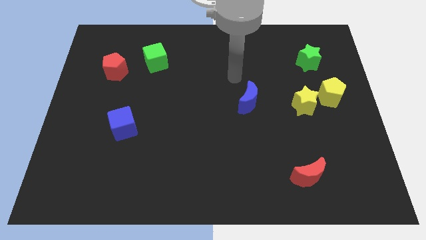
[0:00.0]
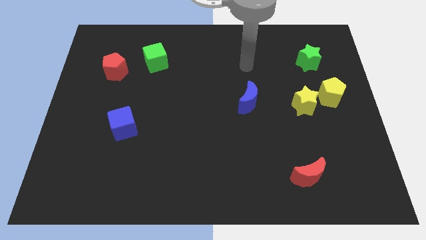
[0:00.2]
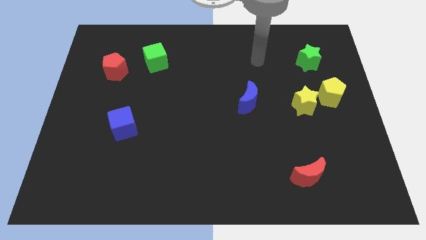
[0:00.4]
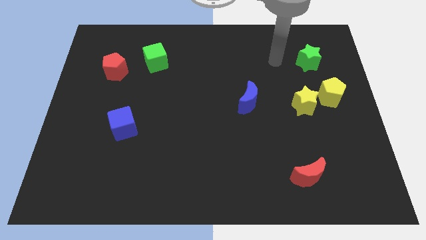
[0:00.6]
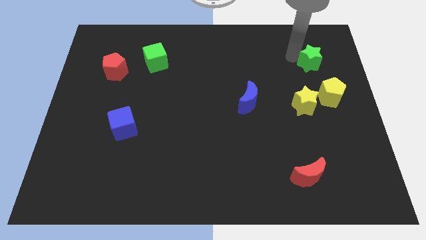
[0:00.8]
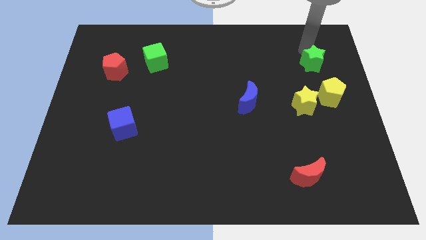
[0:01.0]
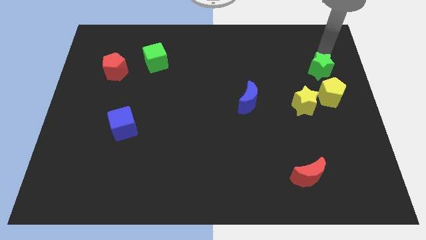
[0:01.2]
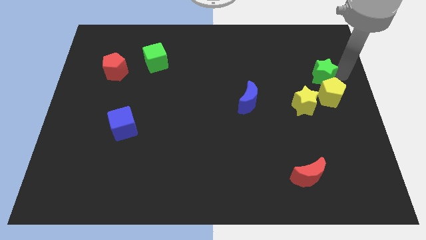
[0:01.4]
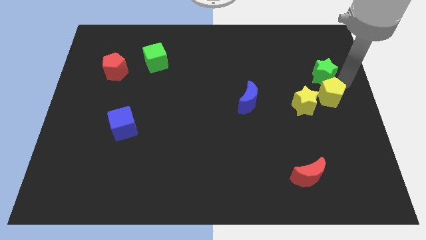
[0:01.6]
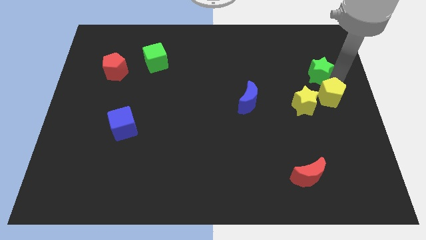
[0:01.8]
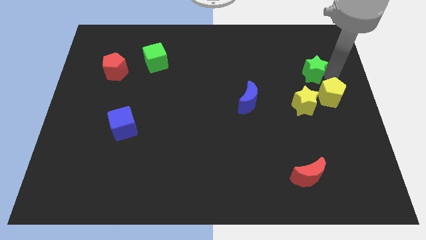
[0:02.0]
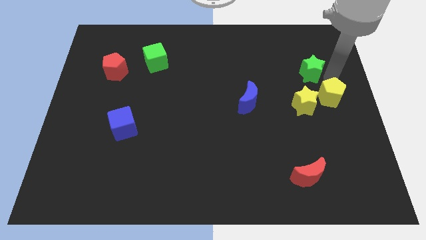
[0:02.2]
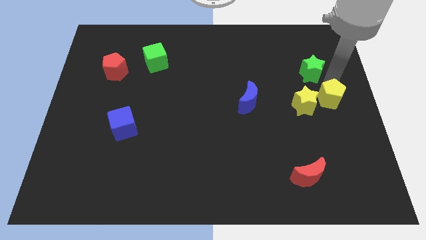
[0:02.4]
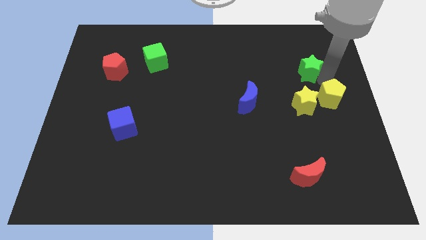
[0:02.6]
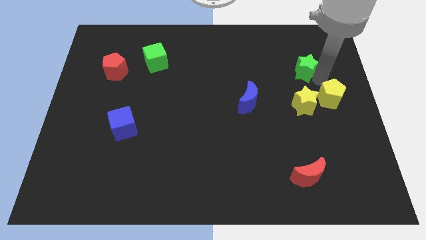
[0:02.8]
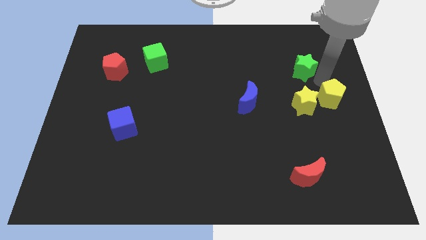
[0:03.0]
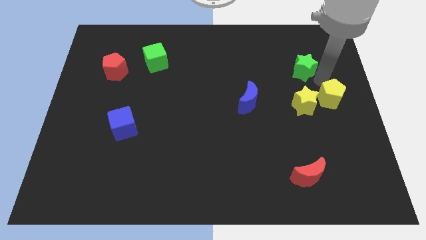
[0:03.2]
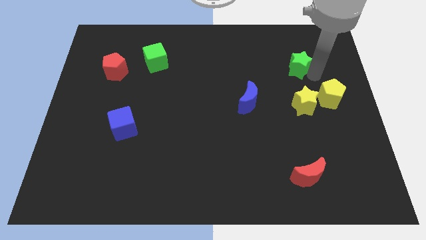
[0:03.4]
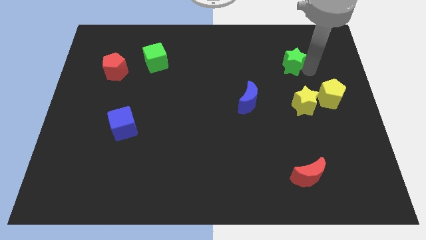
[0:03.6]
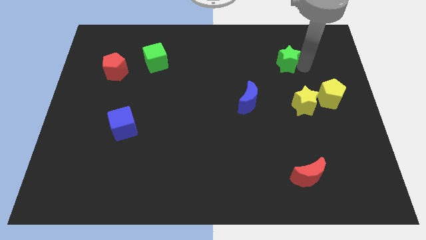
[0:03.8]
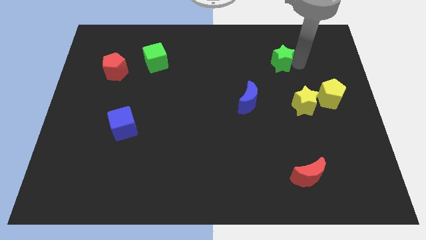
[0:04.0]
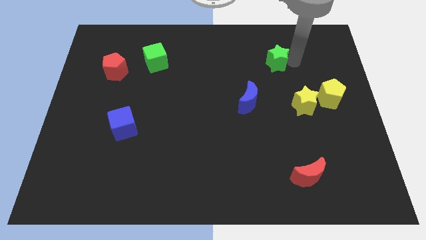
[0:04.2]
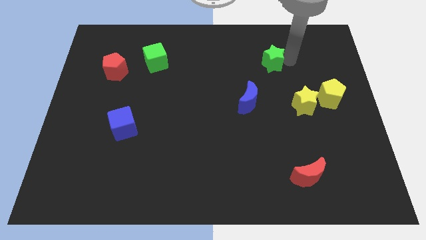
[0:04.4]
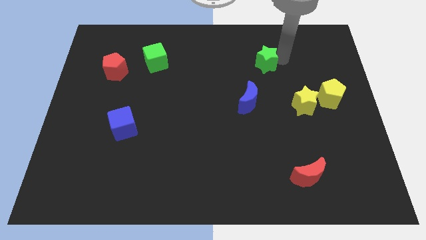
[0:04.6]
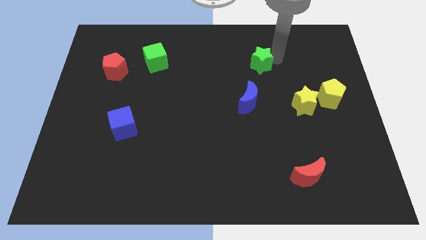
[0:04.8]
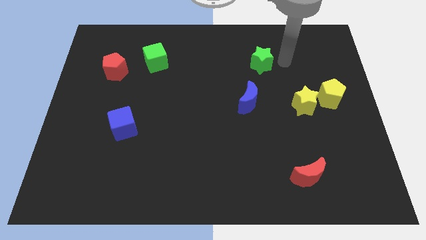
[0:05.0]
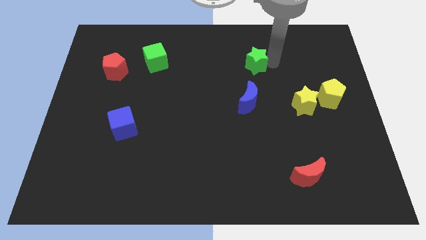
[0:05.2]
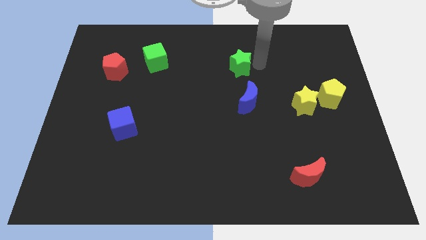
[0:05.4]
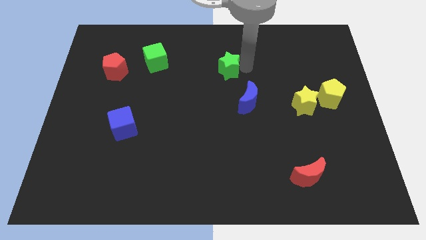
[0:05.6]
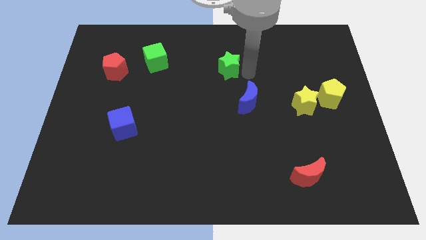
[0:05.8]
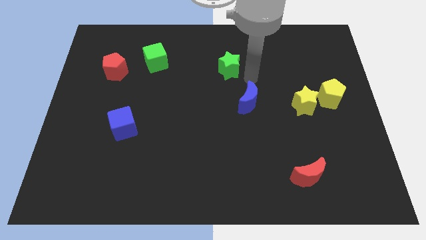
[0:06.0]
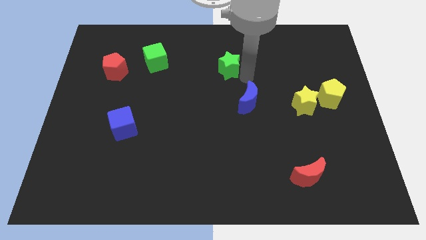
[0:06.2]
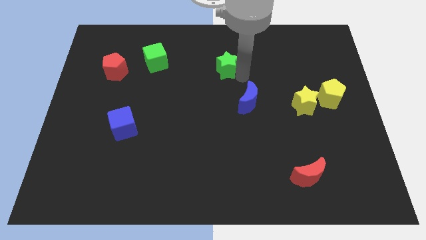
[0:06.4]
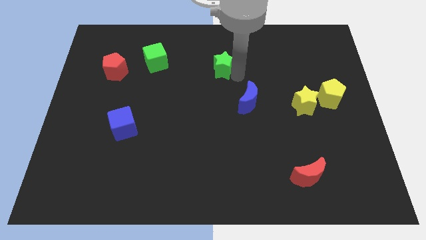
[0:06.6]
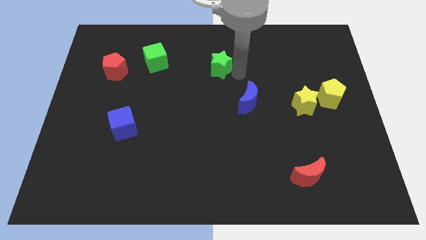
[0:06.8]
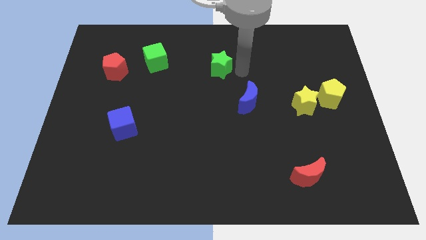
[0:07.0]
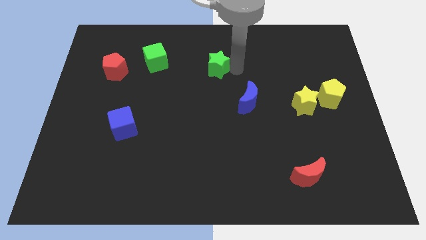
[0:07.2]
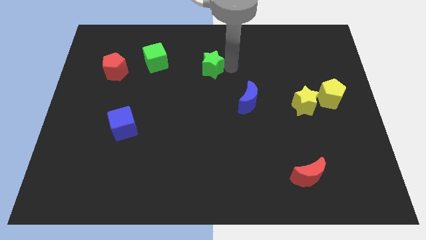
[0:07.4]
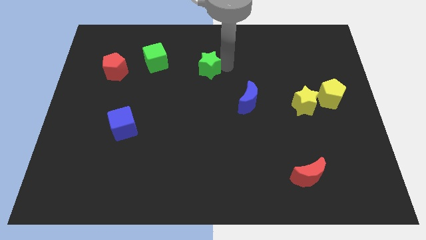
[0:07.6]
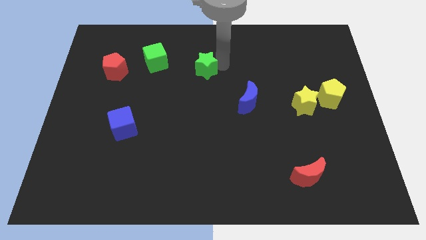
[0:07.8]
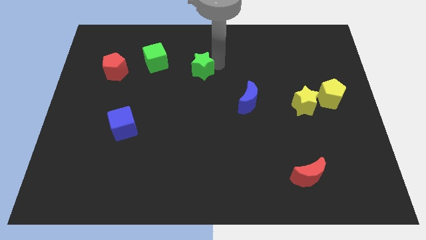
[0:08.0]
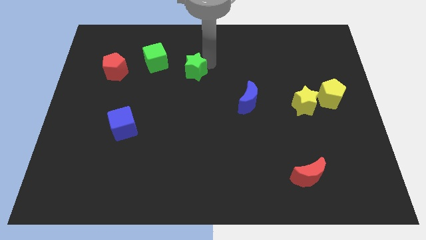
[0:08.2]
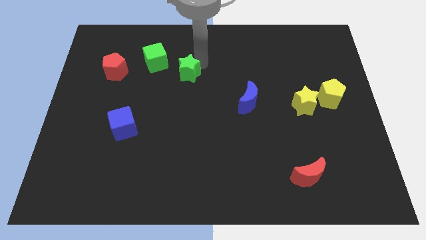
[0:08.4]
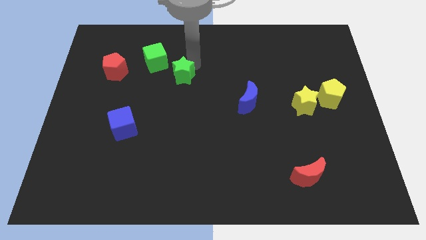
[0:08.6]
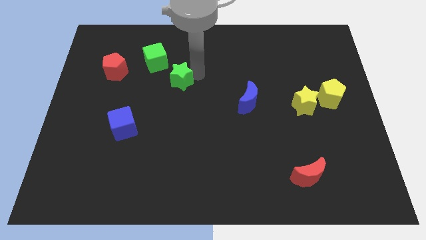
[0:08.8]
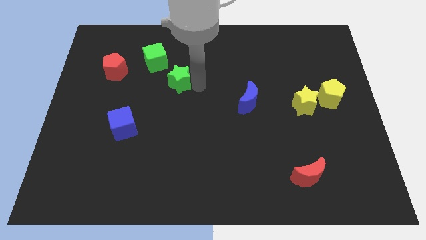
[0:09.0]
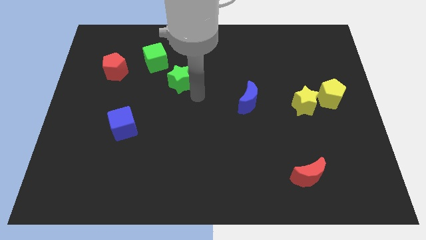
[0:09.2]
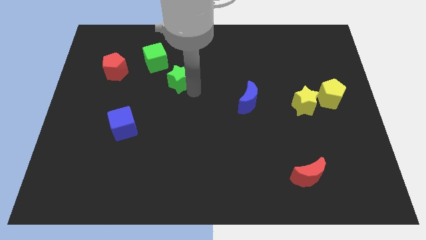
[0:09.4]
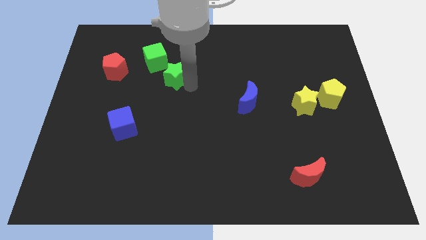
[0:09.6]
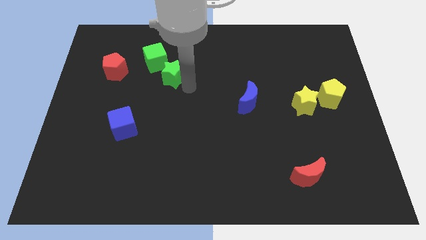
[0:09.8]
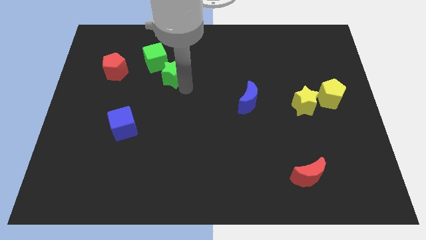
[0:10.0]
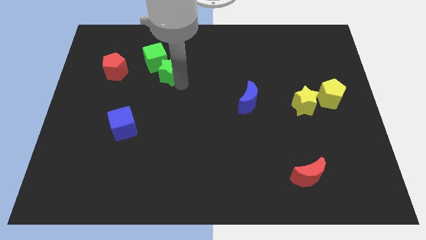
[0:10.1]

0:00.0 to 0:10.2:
slide the green star towards the green cube

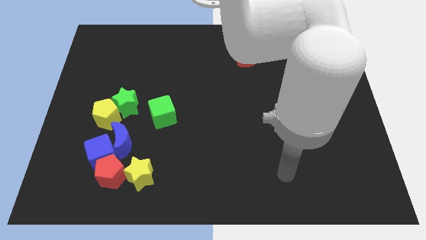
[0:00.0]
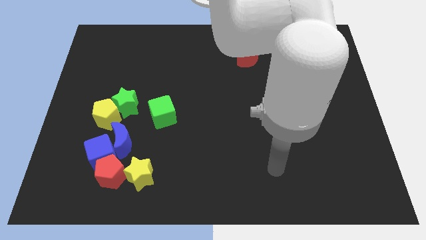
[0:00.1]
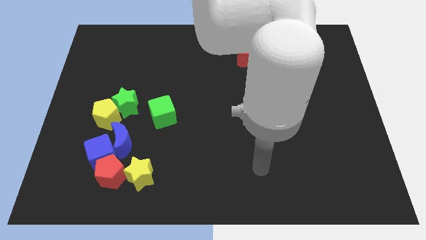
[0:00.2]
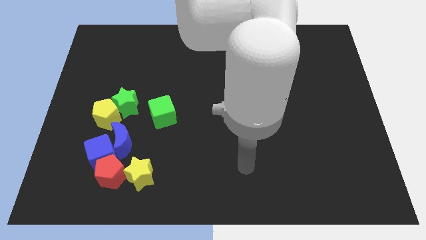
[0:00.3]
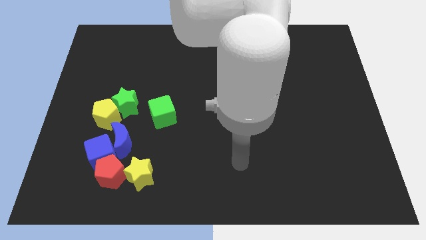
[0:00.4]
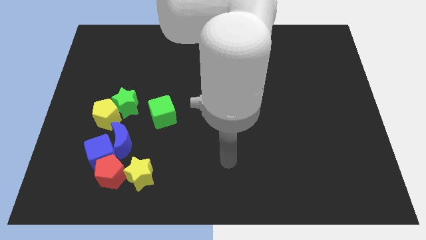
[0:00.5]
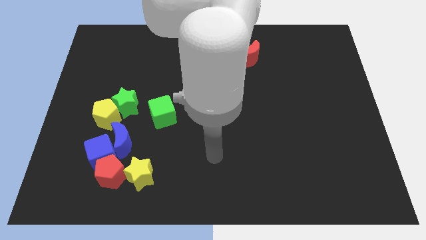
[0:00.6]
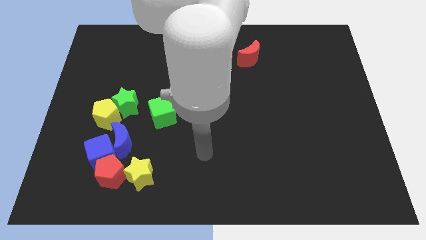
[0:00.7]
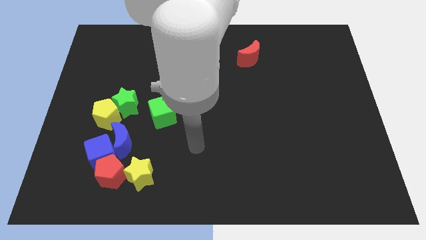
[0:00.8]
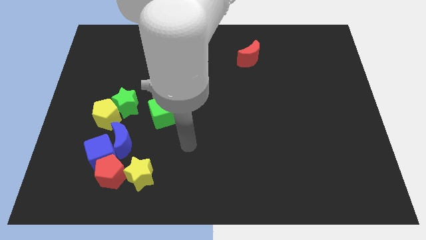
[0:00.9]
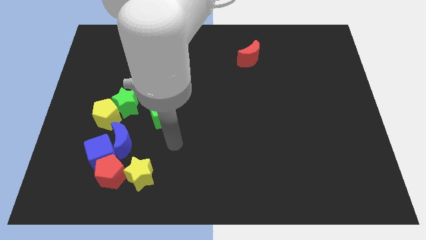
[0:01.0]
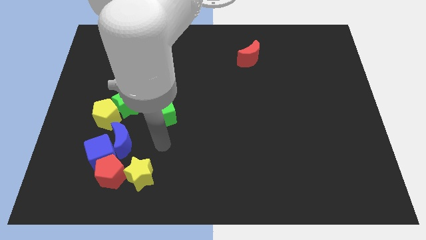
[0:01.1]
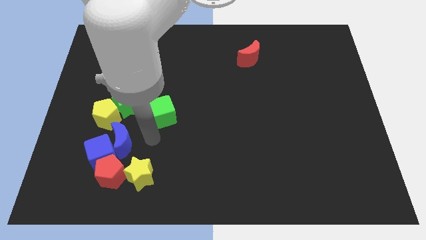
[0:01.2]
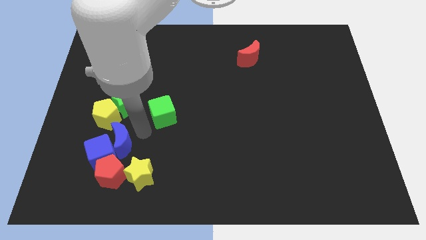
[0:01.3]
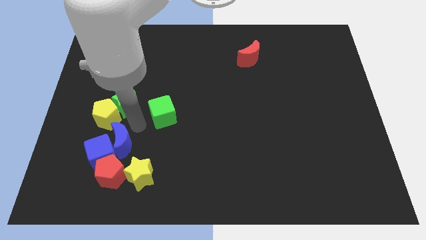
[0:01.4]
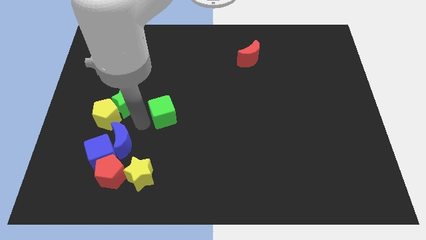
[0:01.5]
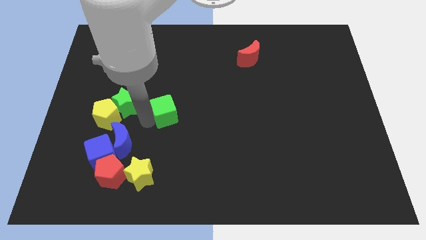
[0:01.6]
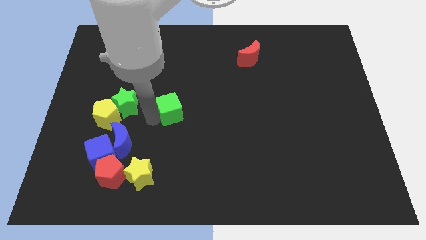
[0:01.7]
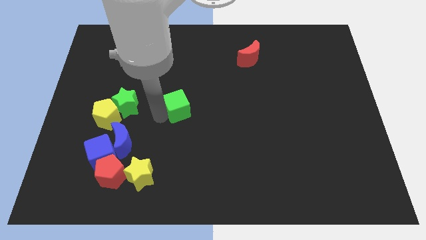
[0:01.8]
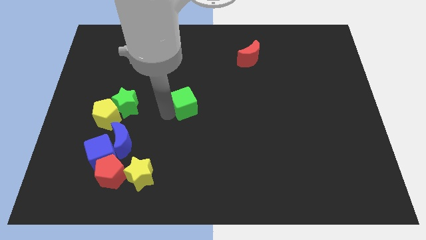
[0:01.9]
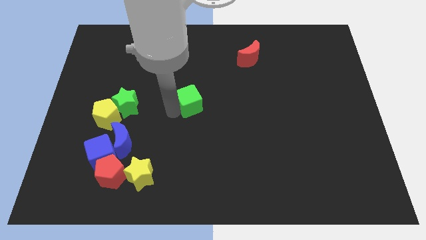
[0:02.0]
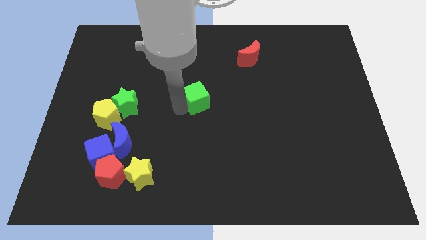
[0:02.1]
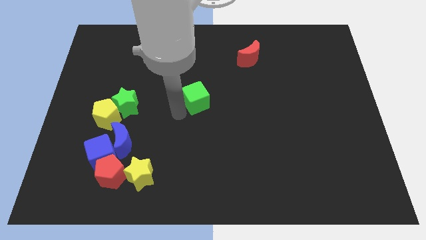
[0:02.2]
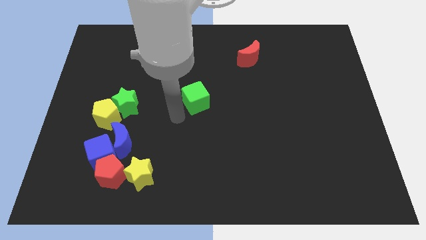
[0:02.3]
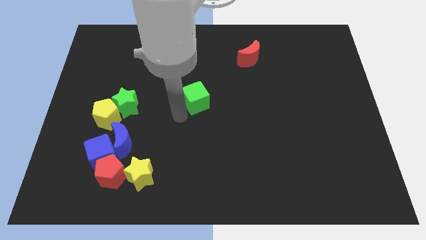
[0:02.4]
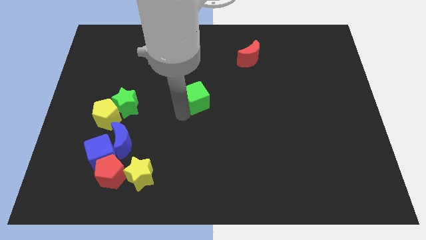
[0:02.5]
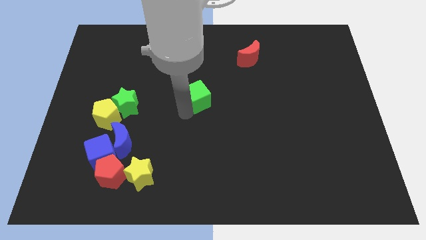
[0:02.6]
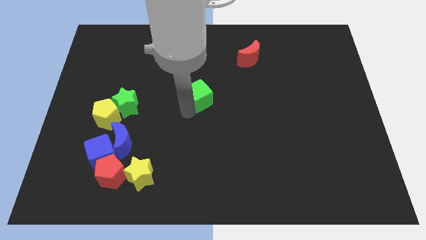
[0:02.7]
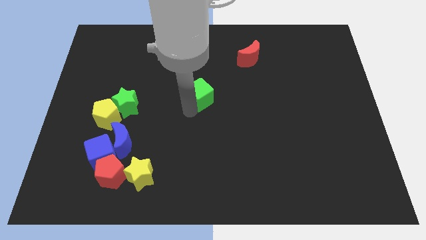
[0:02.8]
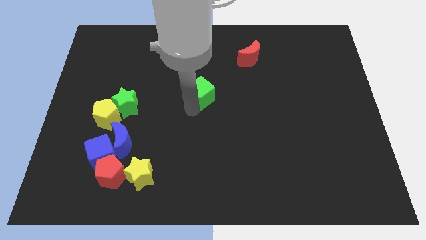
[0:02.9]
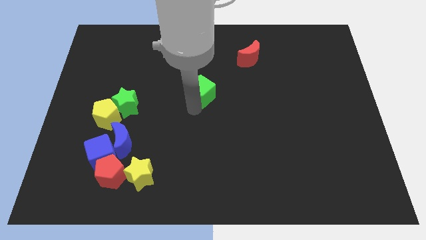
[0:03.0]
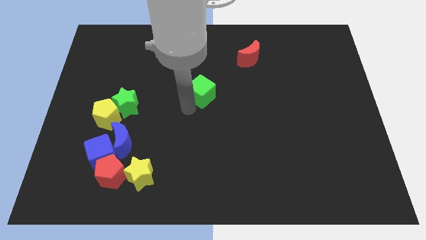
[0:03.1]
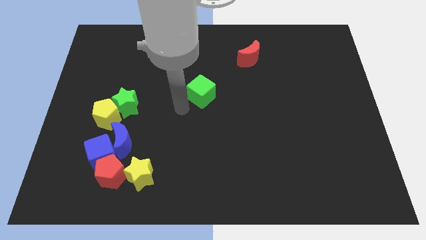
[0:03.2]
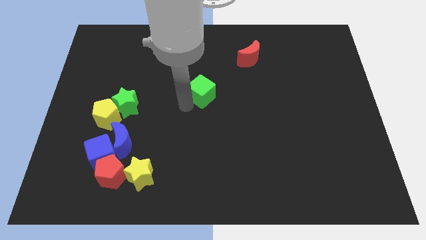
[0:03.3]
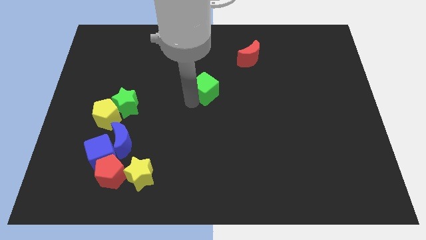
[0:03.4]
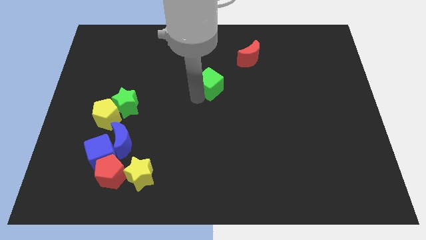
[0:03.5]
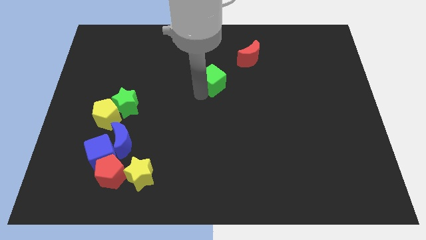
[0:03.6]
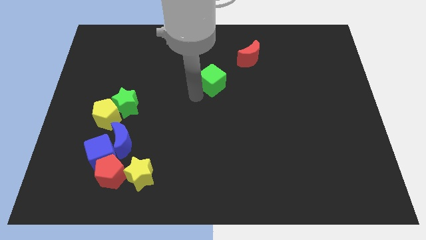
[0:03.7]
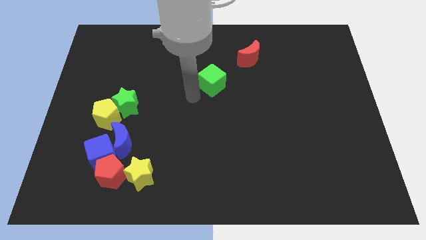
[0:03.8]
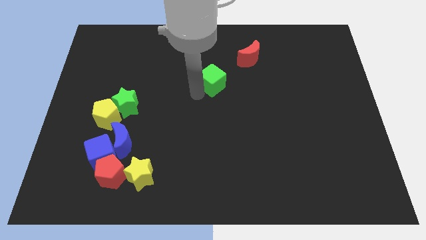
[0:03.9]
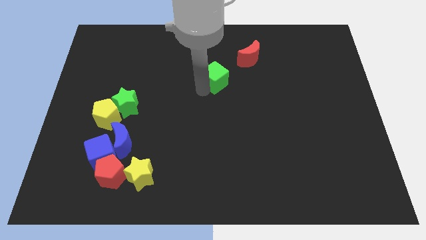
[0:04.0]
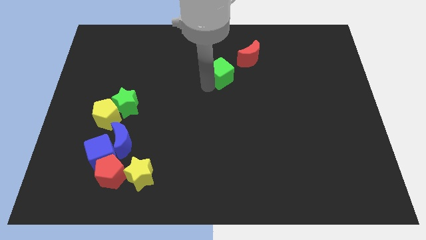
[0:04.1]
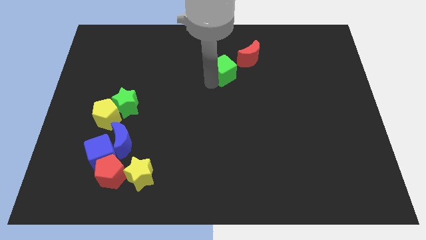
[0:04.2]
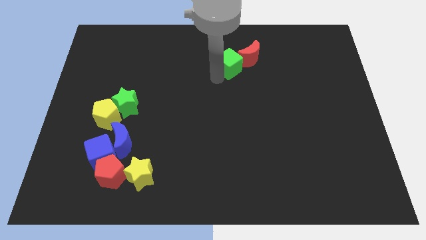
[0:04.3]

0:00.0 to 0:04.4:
put the green cube close to the red moon
